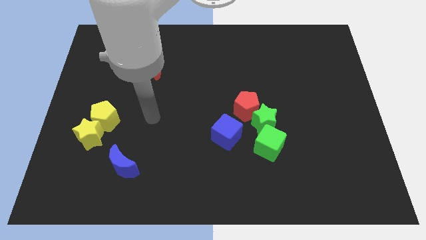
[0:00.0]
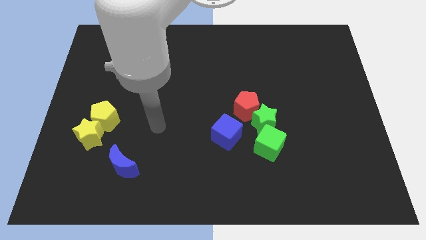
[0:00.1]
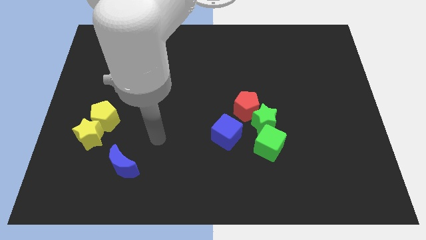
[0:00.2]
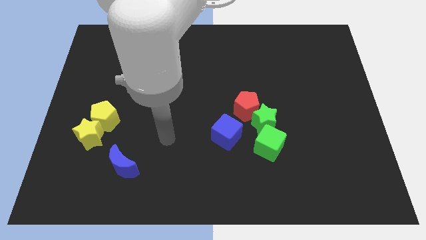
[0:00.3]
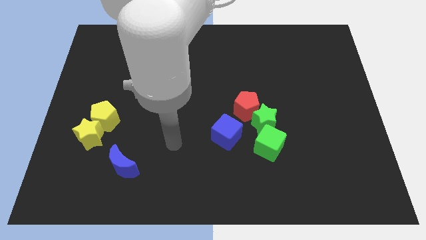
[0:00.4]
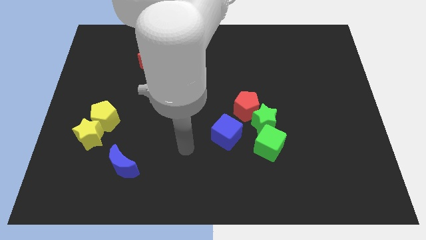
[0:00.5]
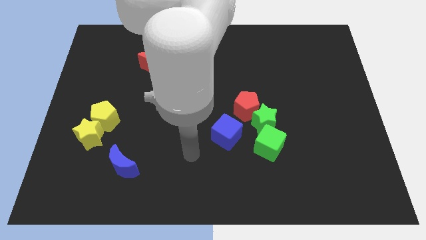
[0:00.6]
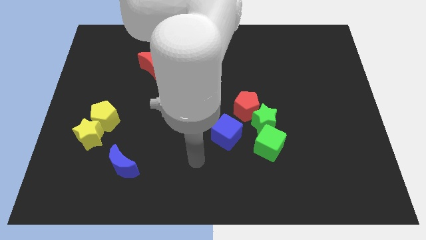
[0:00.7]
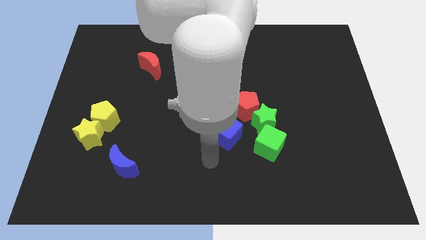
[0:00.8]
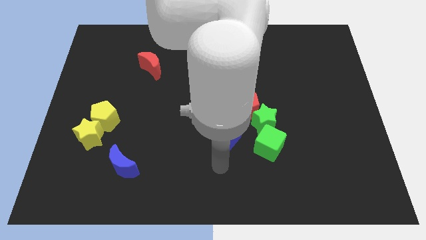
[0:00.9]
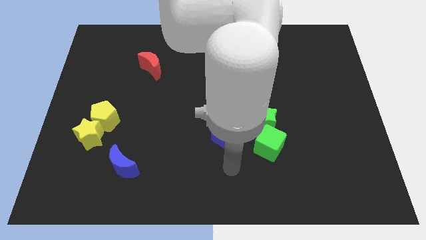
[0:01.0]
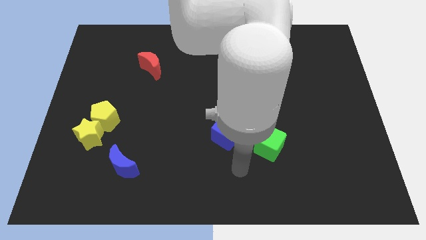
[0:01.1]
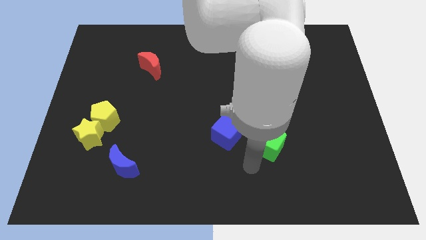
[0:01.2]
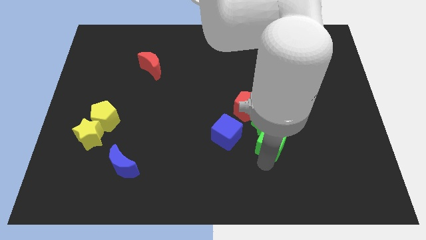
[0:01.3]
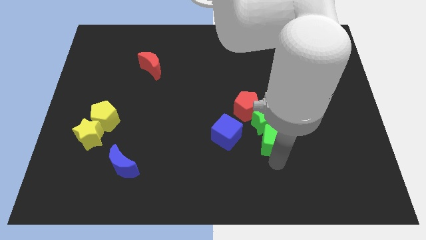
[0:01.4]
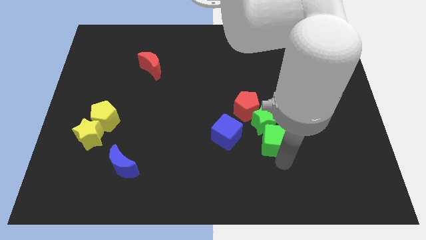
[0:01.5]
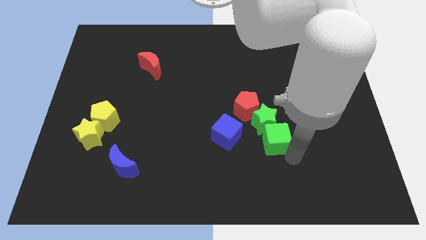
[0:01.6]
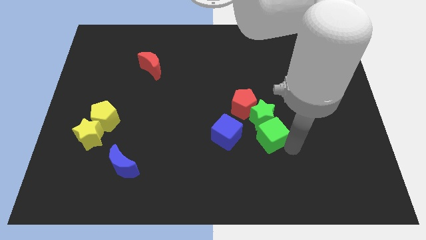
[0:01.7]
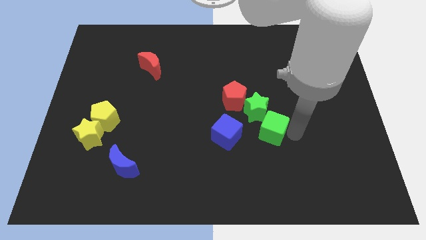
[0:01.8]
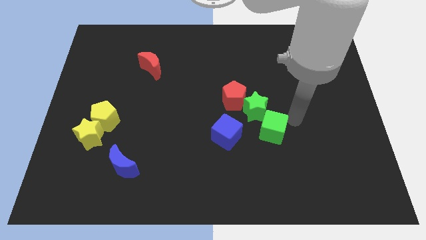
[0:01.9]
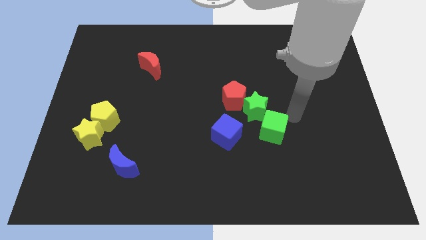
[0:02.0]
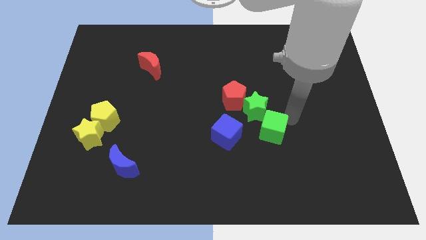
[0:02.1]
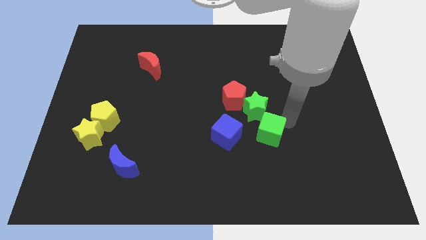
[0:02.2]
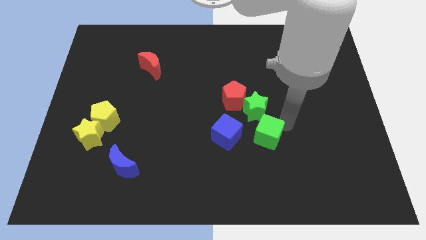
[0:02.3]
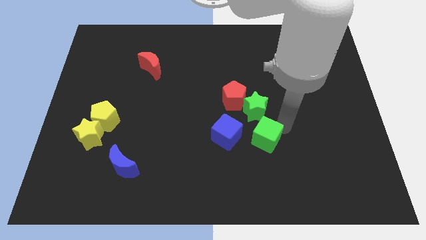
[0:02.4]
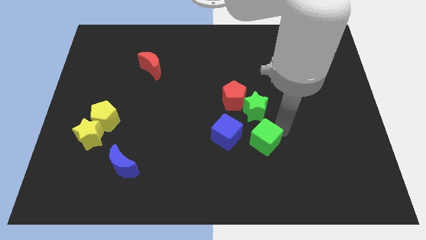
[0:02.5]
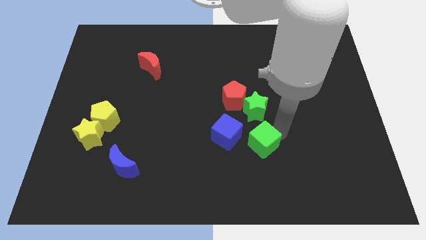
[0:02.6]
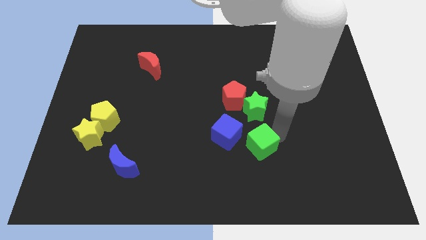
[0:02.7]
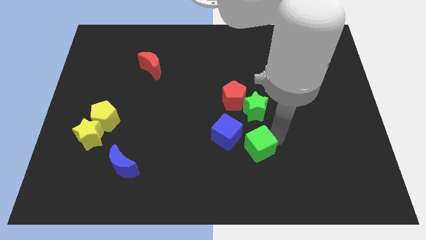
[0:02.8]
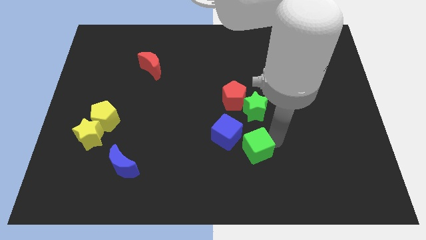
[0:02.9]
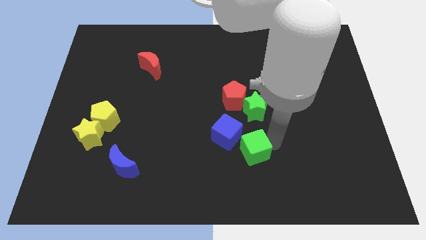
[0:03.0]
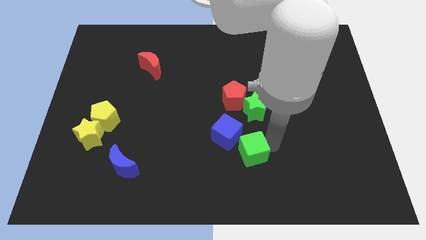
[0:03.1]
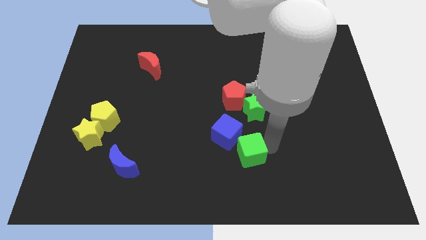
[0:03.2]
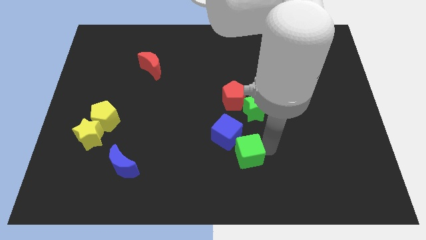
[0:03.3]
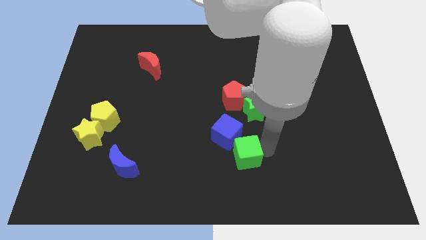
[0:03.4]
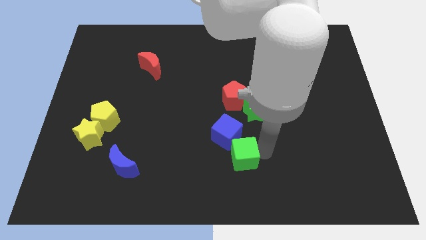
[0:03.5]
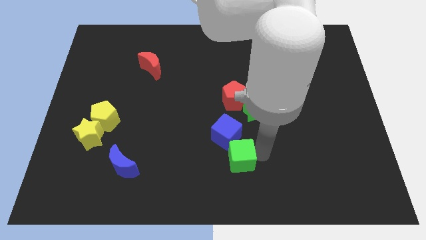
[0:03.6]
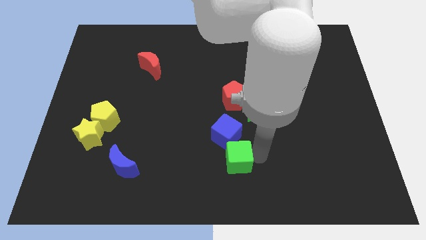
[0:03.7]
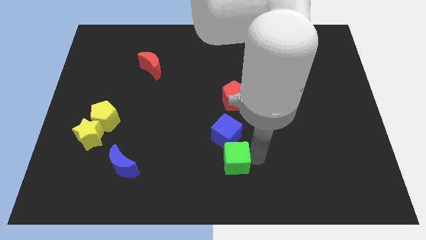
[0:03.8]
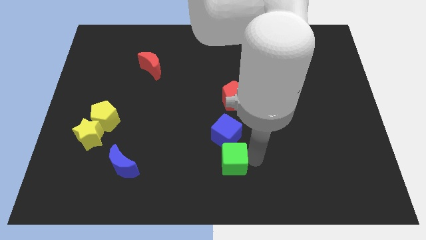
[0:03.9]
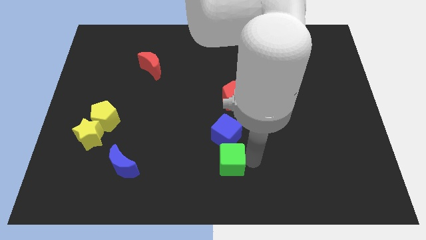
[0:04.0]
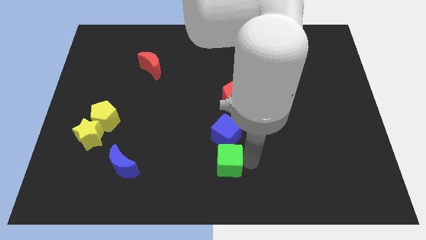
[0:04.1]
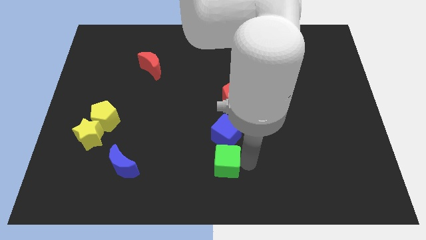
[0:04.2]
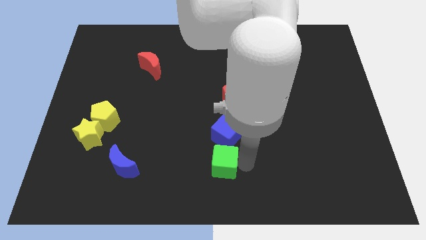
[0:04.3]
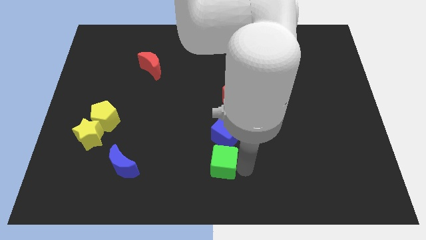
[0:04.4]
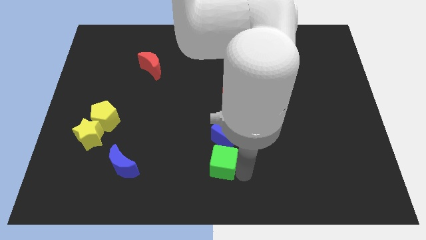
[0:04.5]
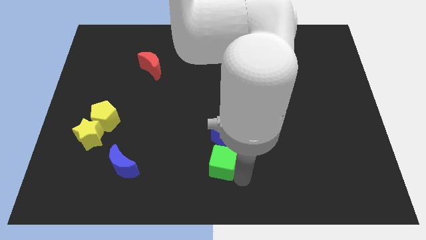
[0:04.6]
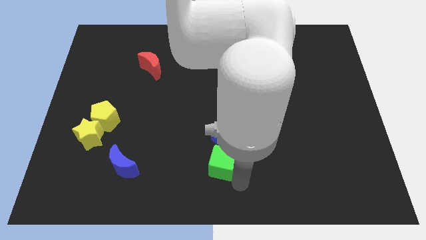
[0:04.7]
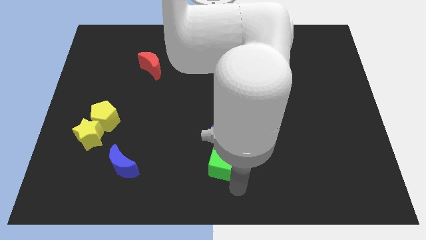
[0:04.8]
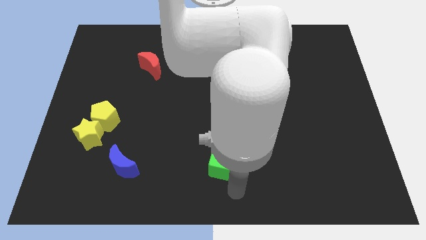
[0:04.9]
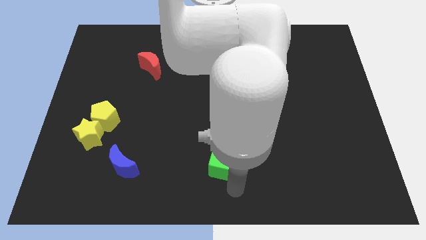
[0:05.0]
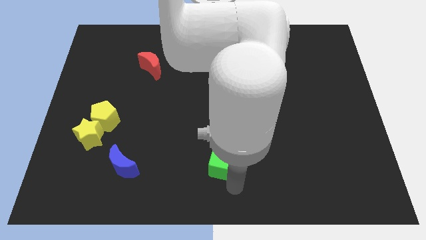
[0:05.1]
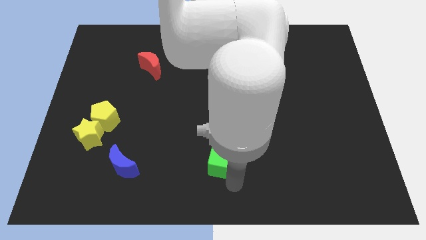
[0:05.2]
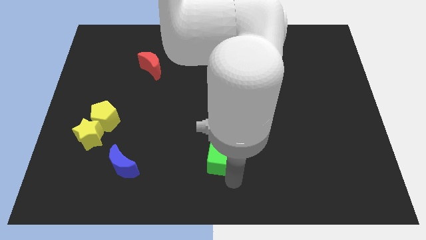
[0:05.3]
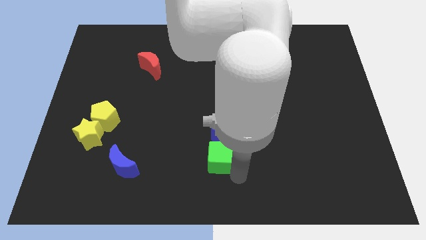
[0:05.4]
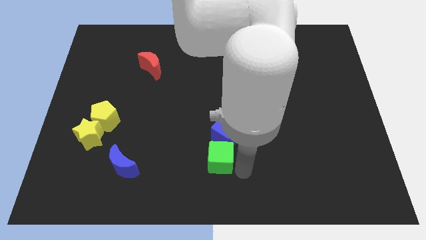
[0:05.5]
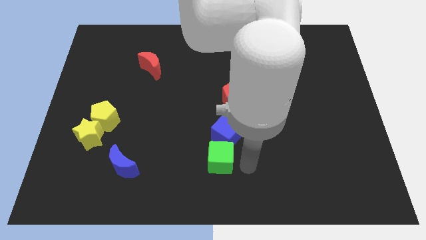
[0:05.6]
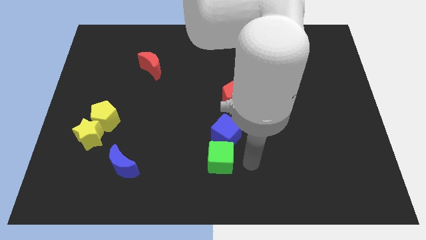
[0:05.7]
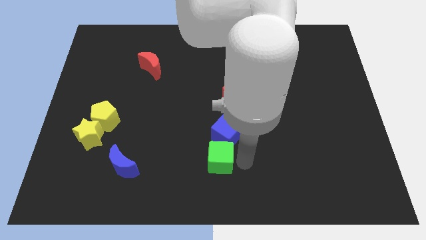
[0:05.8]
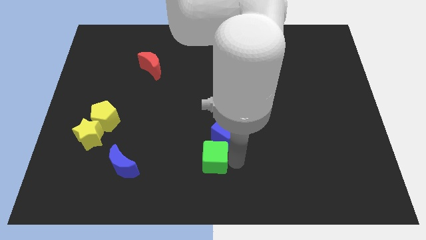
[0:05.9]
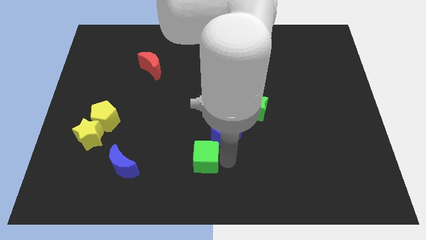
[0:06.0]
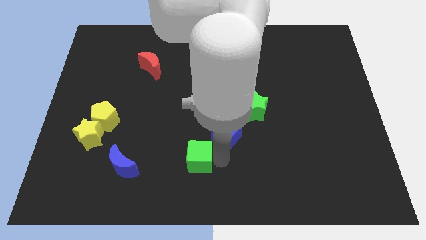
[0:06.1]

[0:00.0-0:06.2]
slide the green cube right of the blue moon
